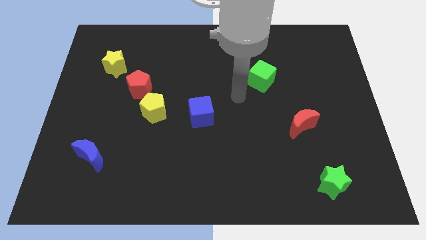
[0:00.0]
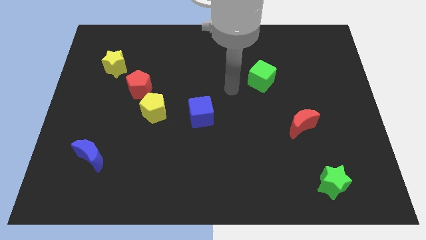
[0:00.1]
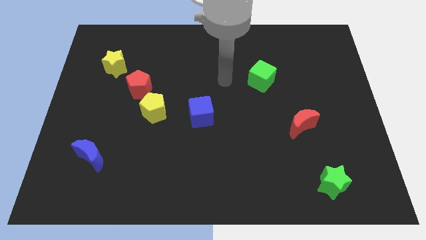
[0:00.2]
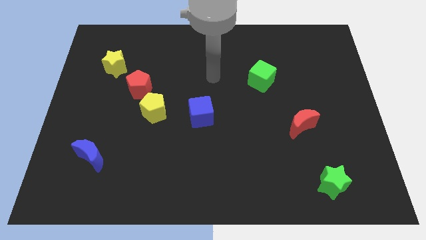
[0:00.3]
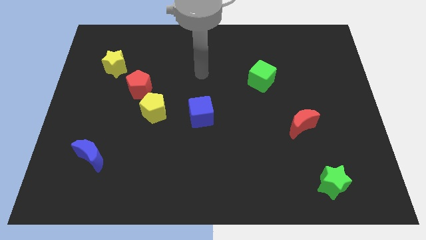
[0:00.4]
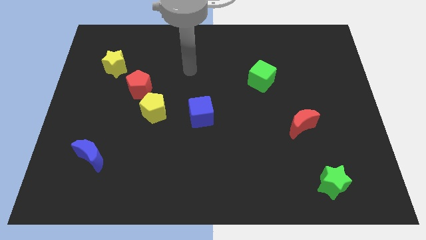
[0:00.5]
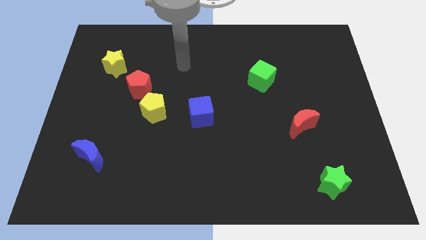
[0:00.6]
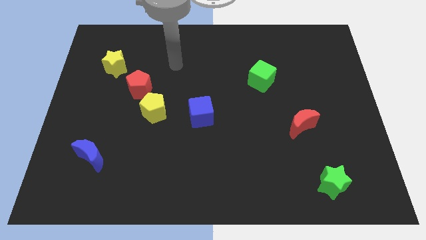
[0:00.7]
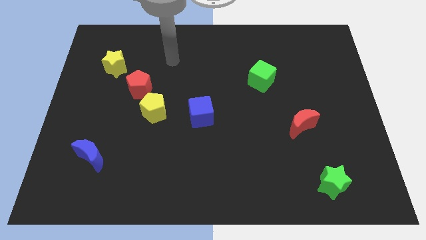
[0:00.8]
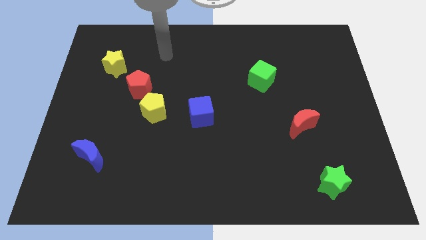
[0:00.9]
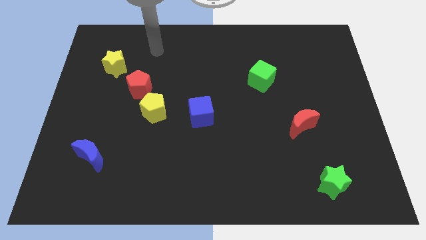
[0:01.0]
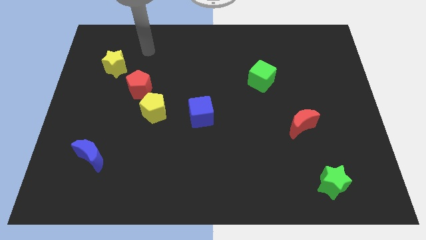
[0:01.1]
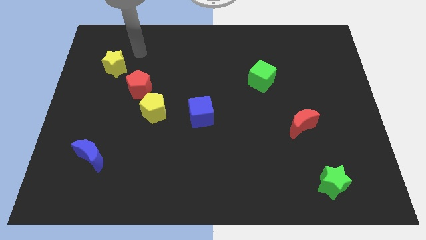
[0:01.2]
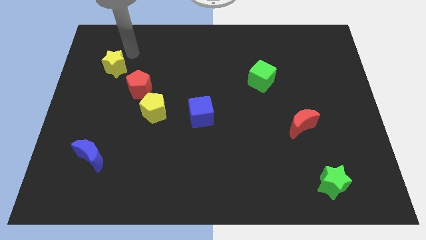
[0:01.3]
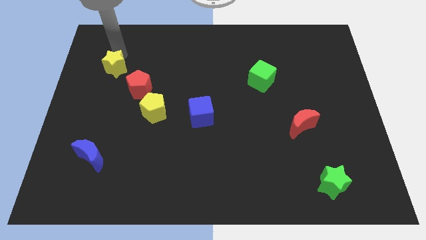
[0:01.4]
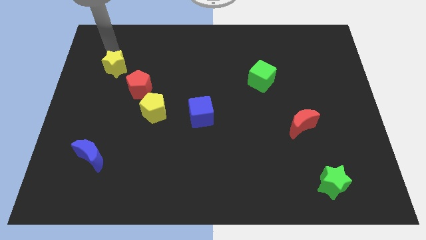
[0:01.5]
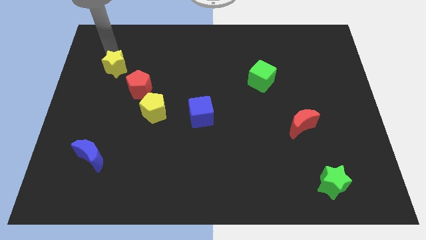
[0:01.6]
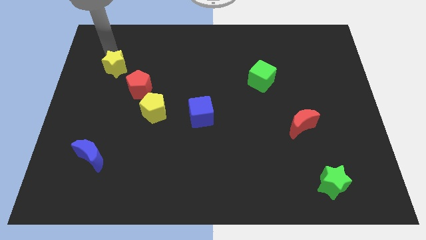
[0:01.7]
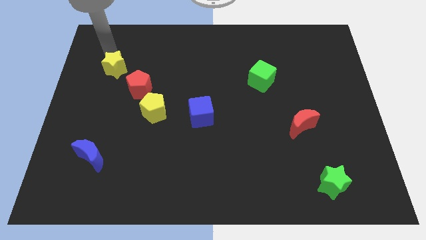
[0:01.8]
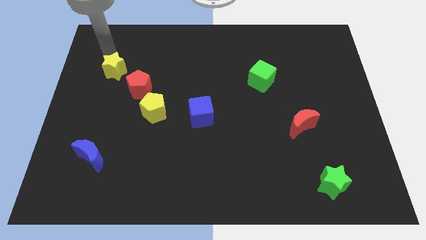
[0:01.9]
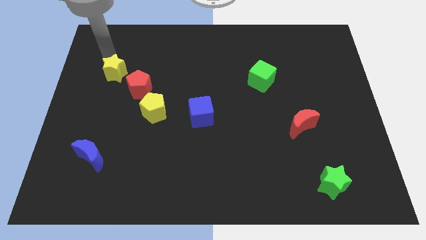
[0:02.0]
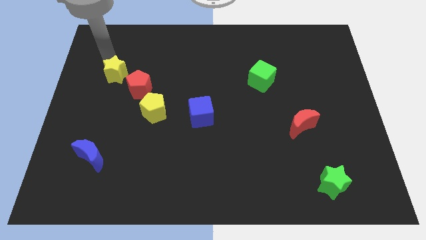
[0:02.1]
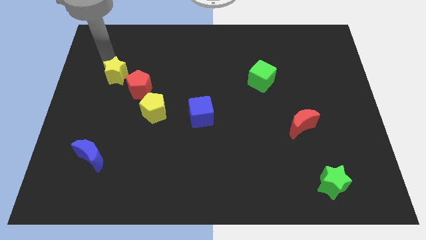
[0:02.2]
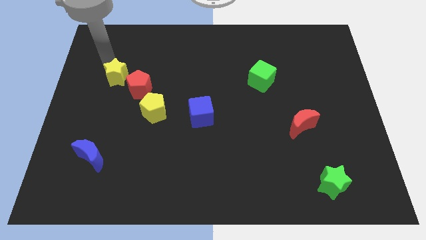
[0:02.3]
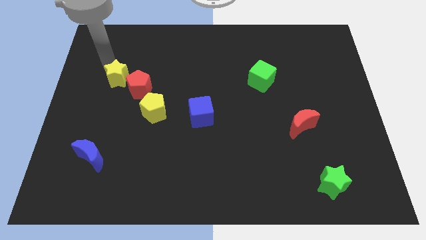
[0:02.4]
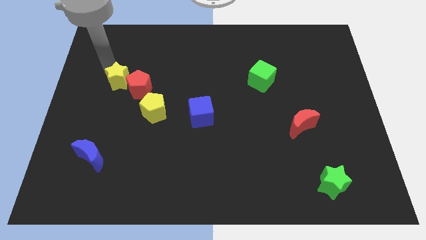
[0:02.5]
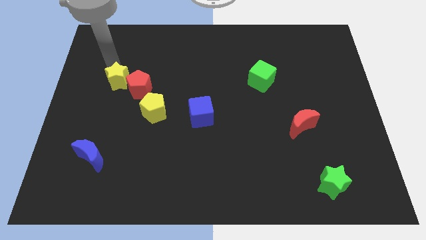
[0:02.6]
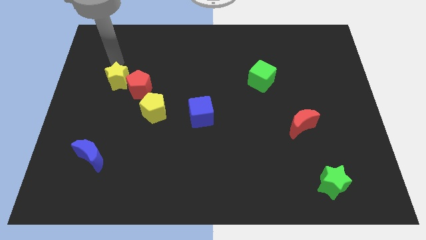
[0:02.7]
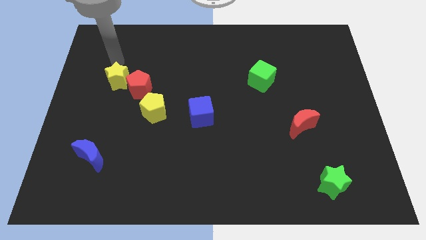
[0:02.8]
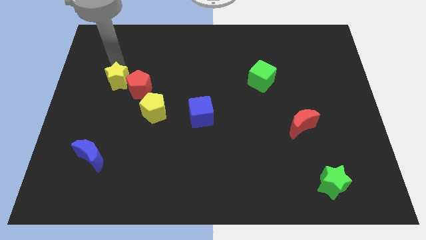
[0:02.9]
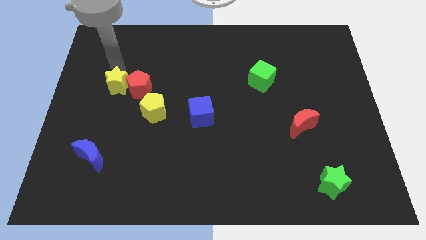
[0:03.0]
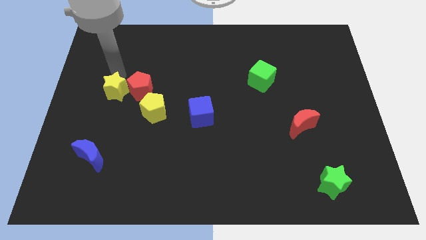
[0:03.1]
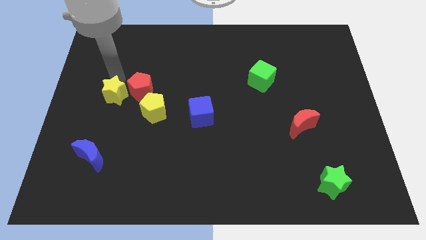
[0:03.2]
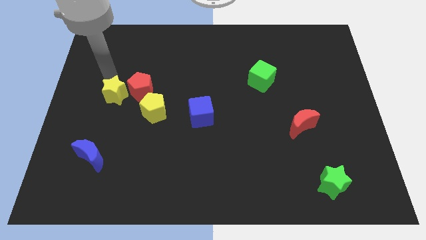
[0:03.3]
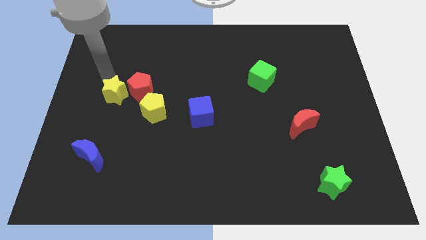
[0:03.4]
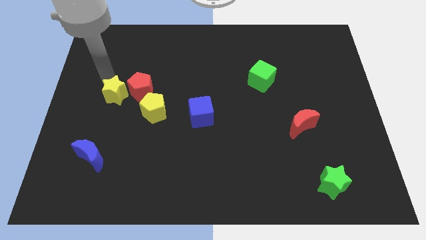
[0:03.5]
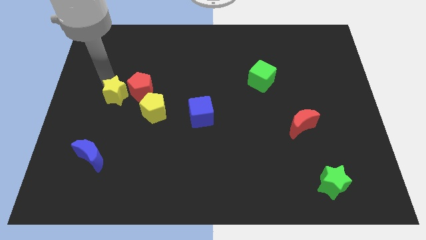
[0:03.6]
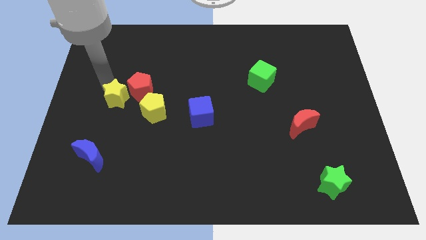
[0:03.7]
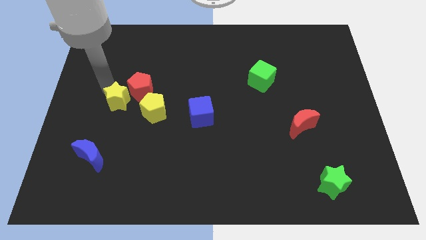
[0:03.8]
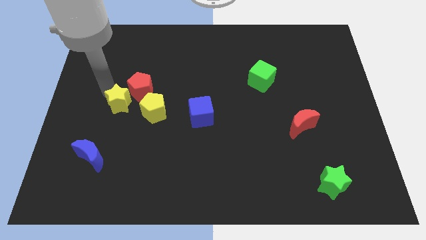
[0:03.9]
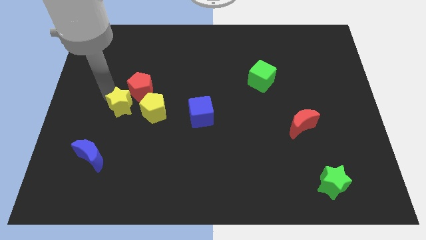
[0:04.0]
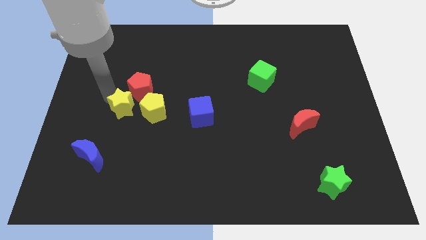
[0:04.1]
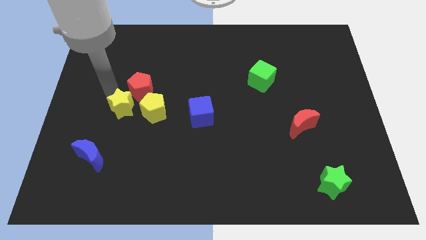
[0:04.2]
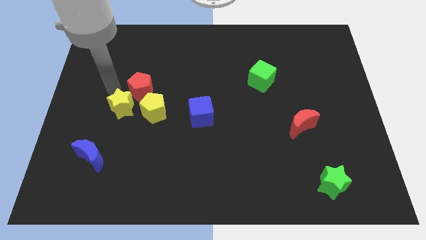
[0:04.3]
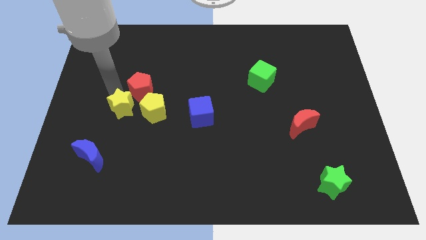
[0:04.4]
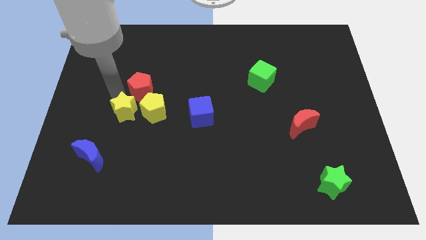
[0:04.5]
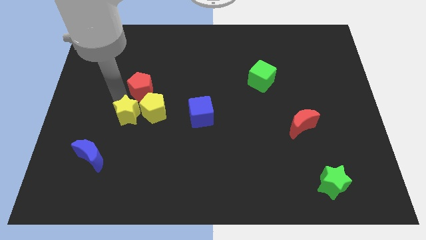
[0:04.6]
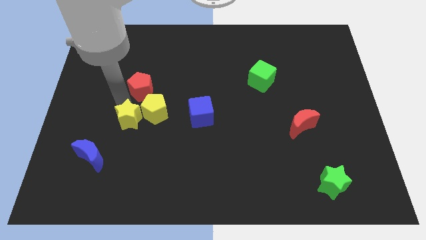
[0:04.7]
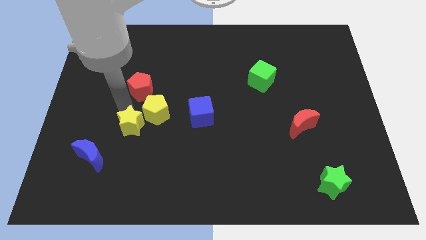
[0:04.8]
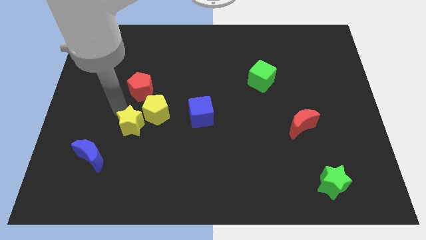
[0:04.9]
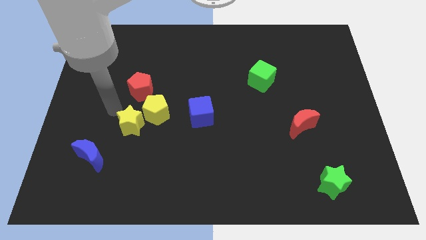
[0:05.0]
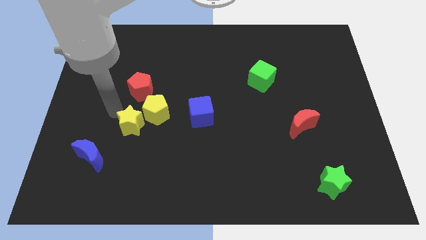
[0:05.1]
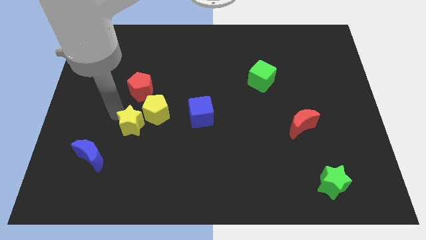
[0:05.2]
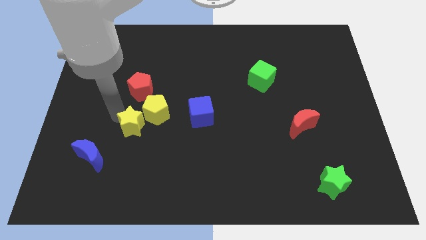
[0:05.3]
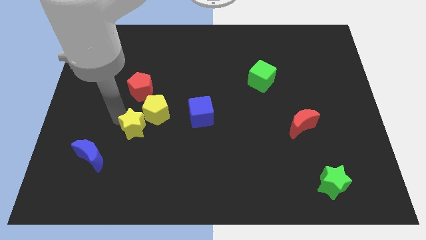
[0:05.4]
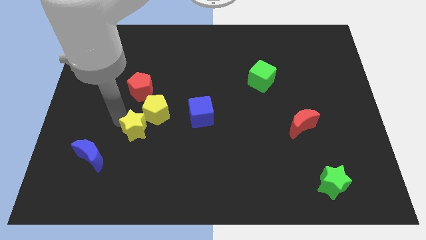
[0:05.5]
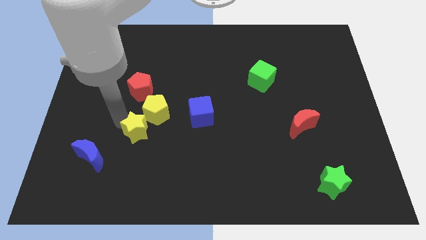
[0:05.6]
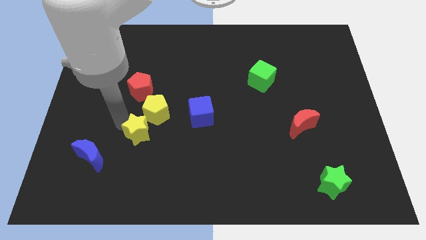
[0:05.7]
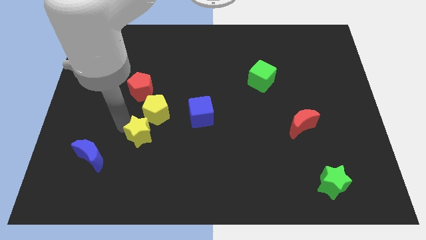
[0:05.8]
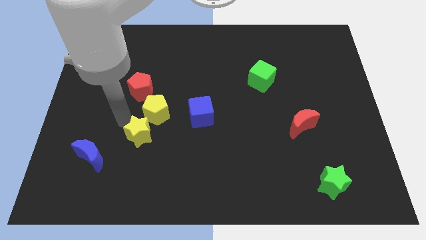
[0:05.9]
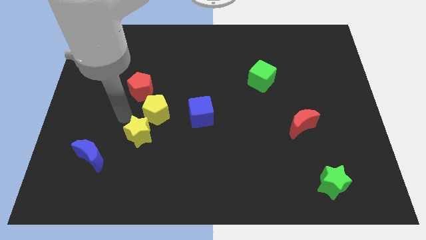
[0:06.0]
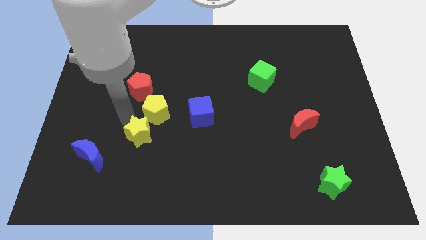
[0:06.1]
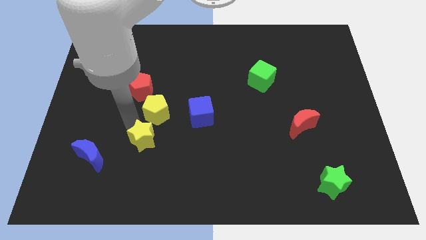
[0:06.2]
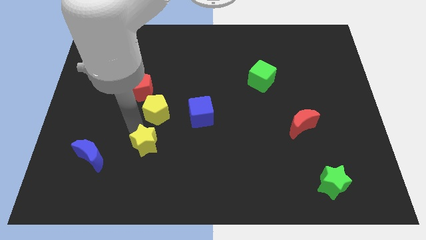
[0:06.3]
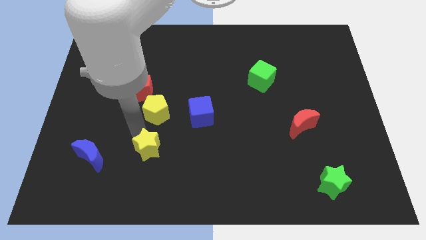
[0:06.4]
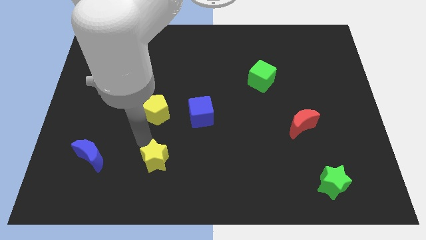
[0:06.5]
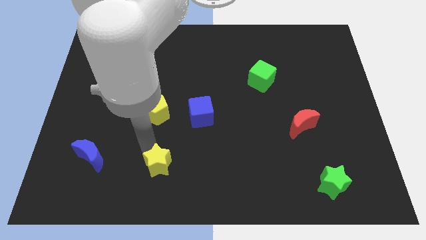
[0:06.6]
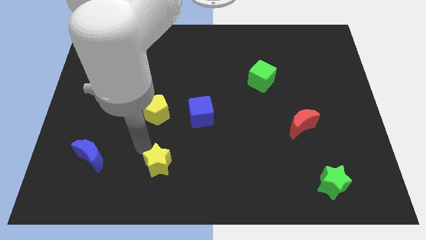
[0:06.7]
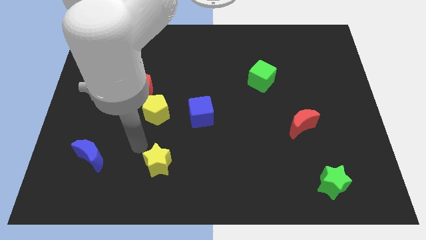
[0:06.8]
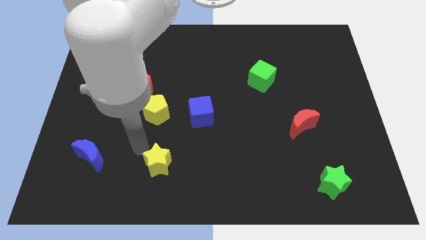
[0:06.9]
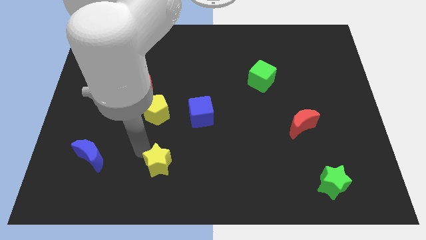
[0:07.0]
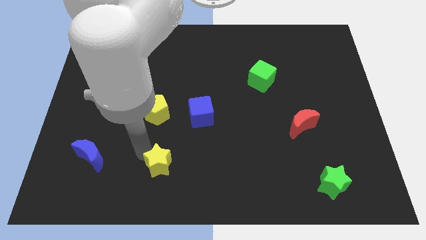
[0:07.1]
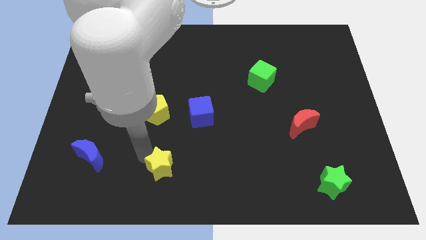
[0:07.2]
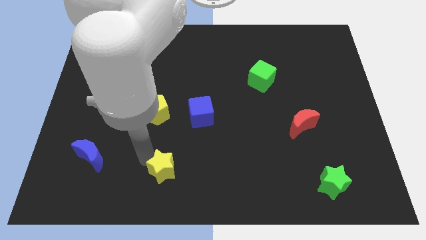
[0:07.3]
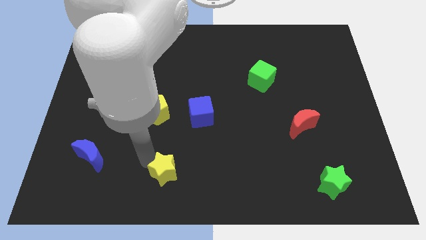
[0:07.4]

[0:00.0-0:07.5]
put the yellow star to the bottom side
